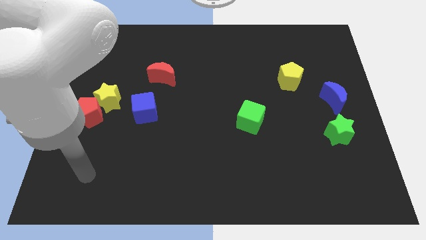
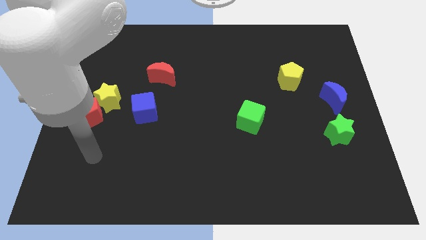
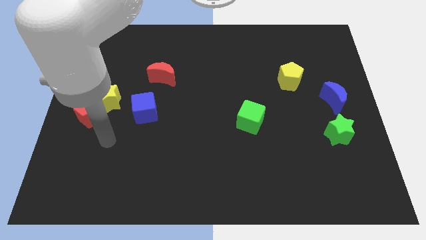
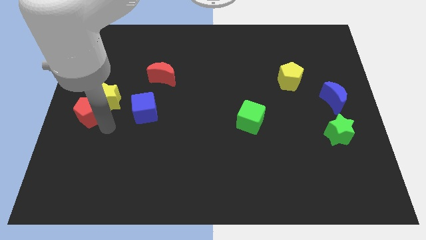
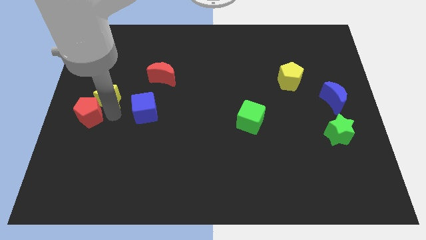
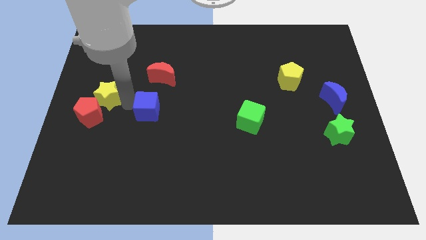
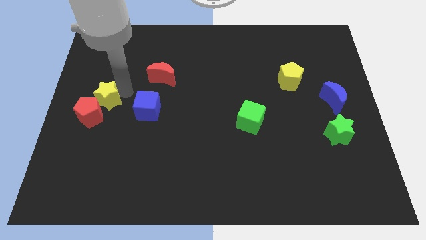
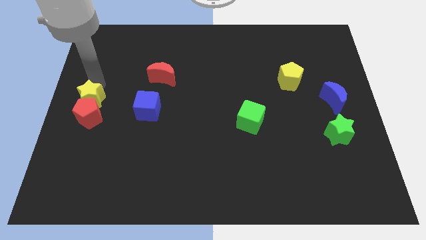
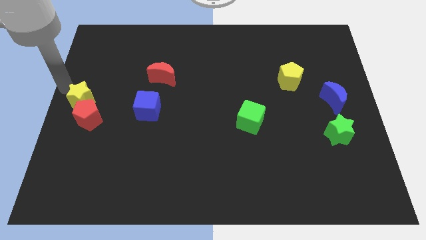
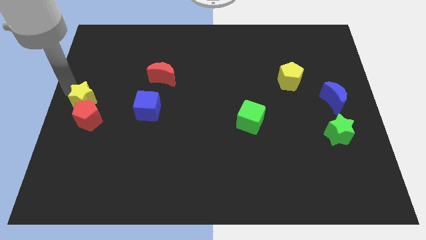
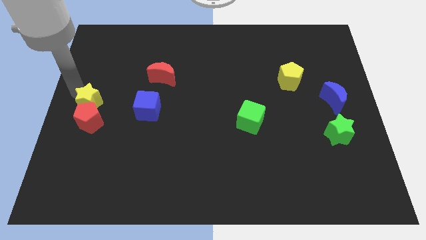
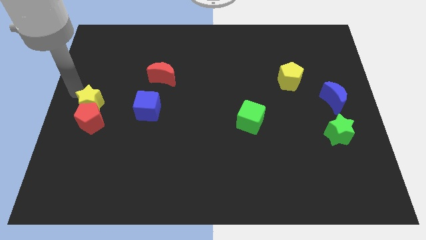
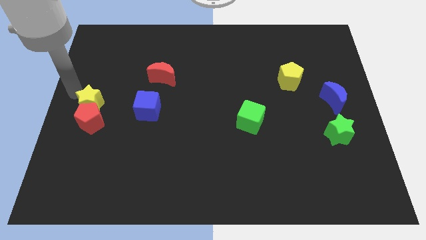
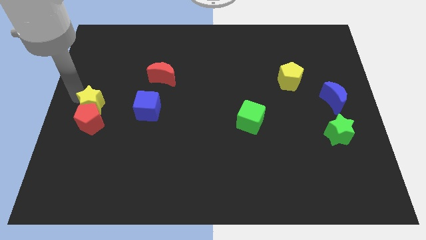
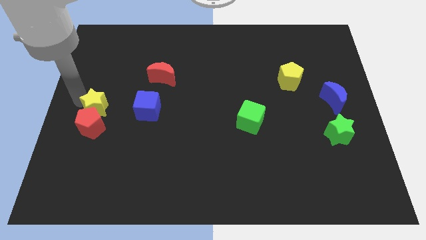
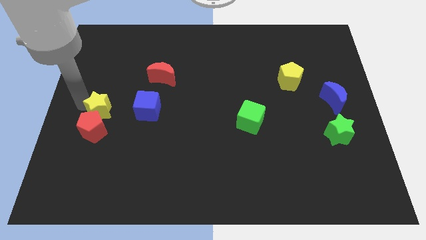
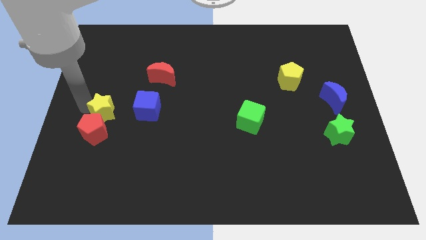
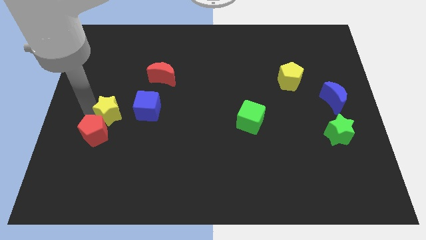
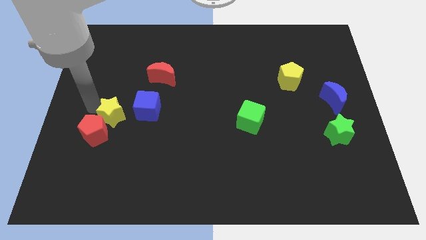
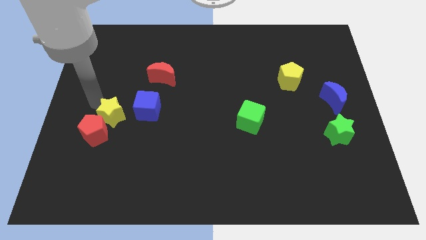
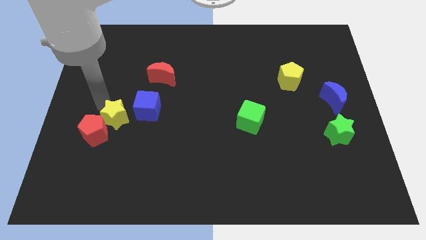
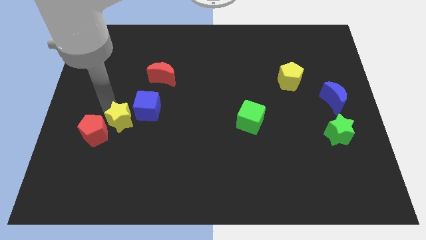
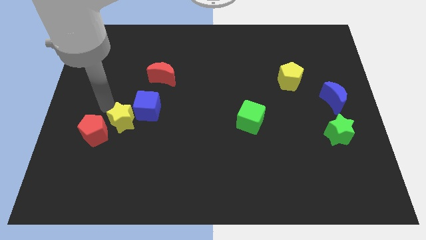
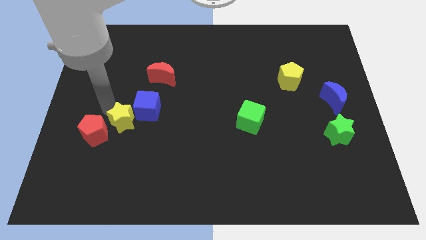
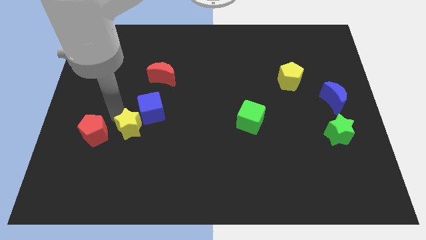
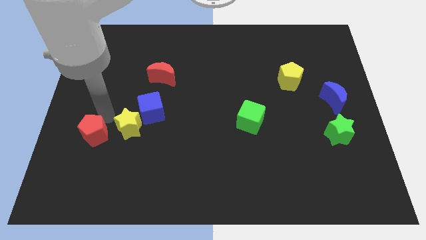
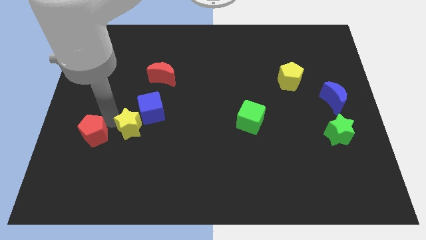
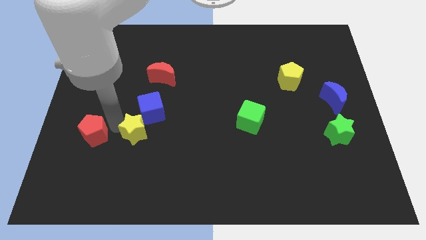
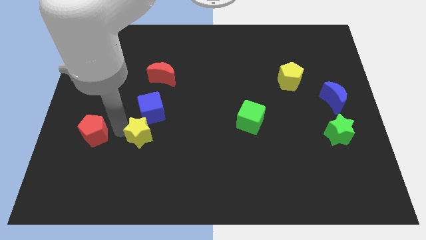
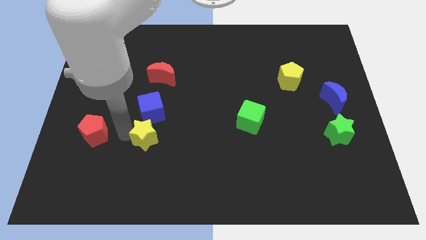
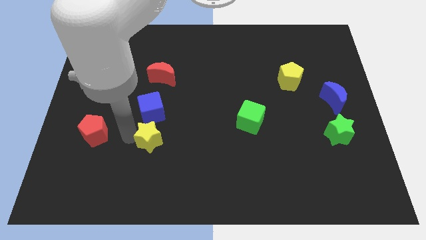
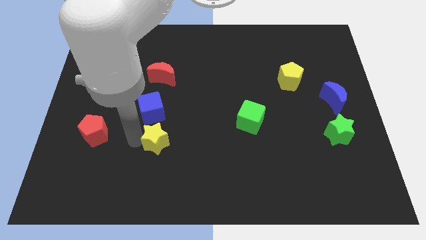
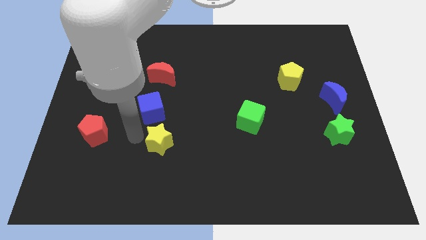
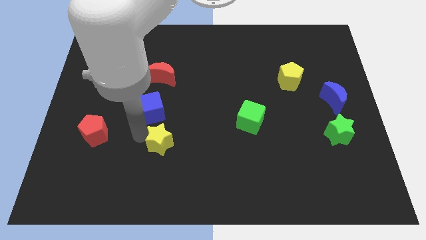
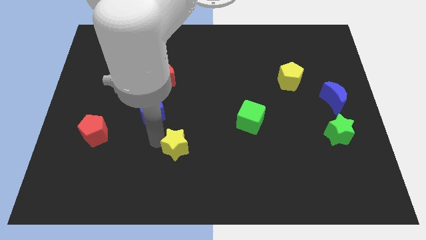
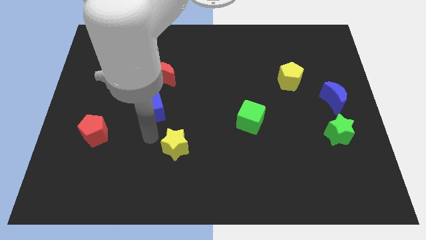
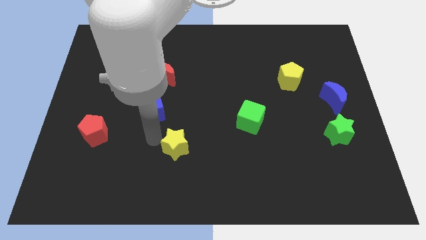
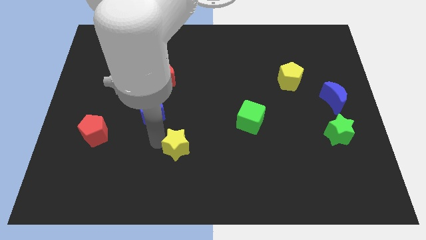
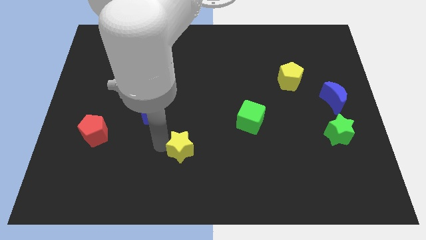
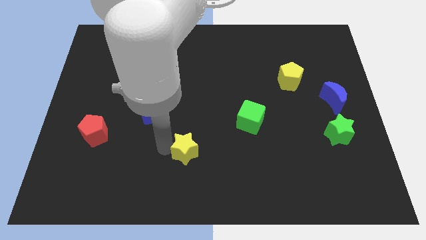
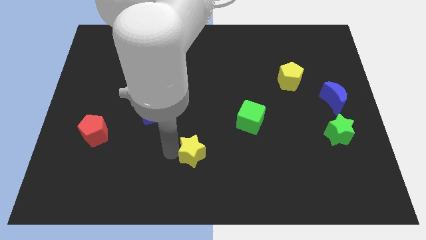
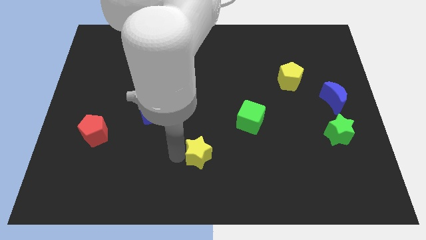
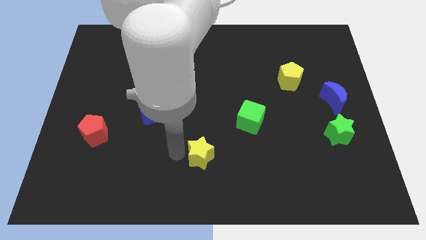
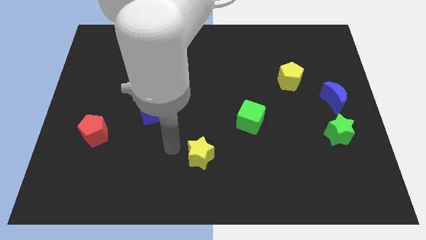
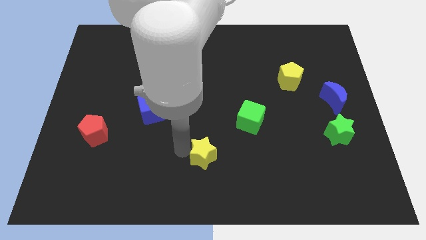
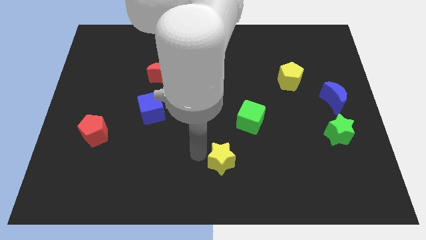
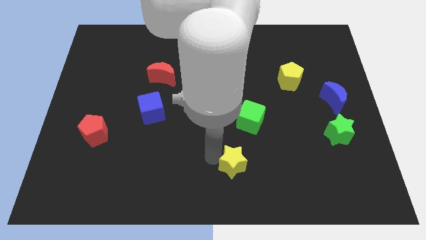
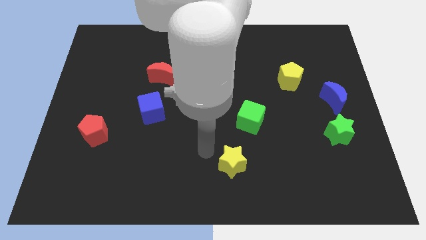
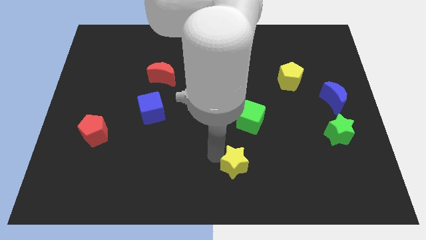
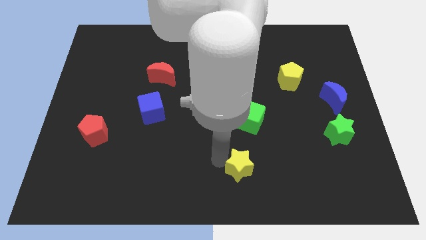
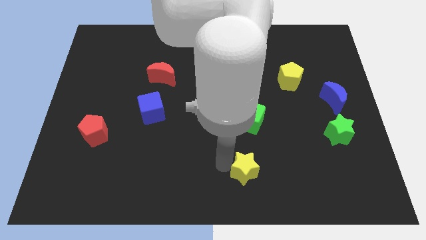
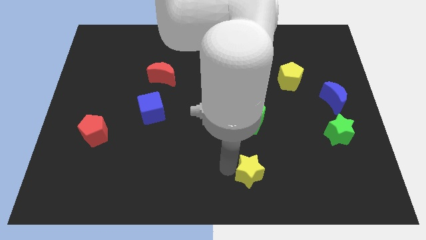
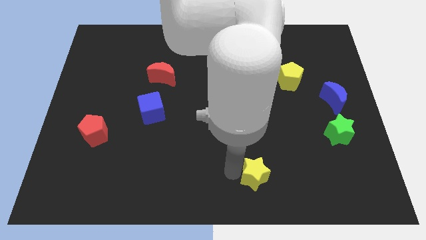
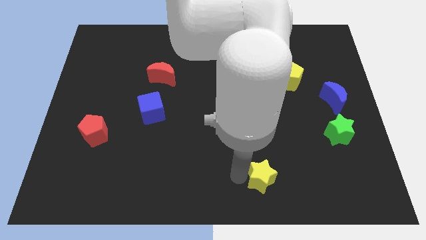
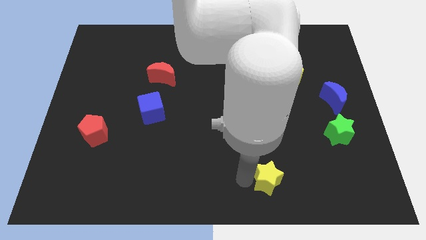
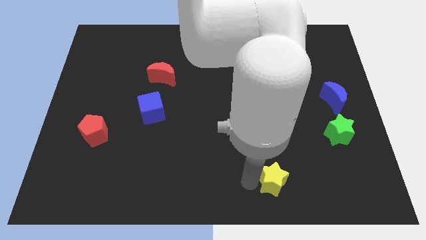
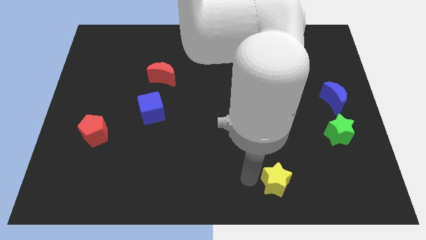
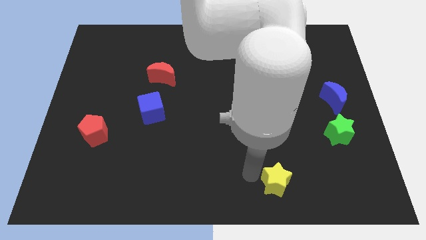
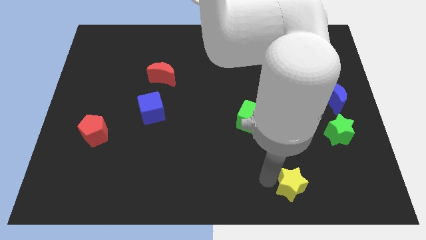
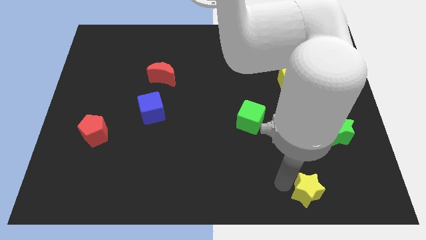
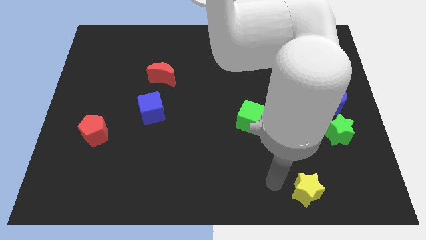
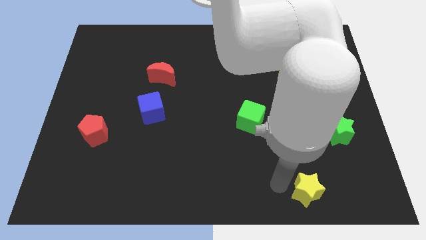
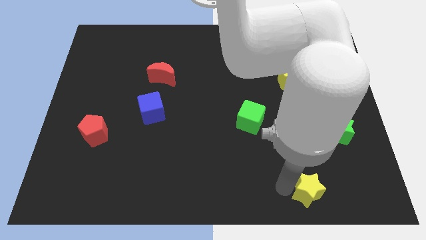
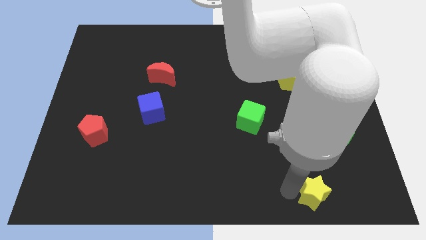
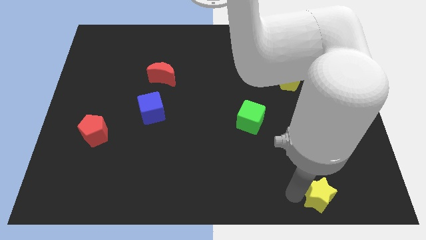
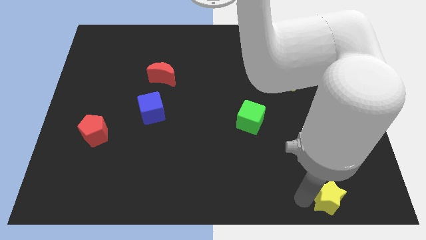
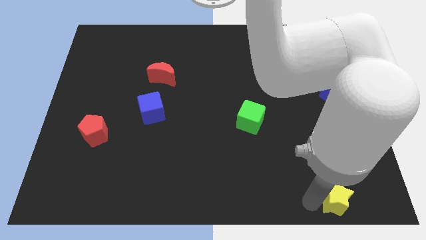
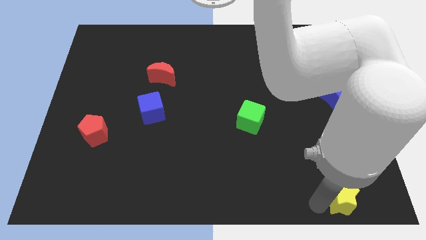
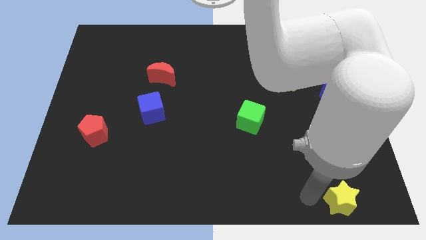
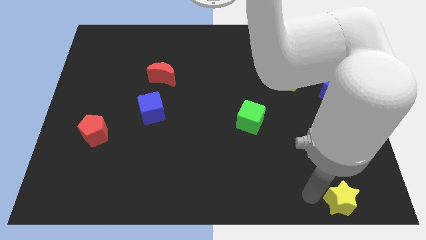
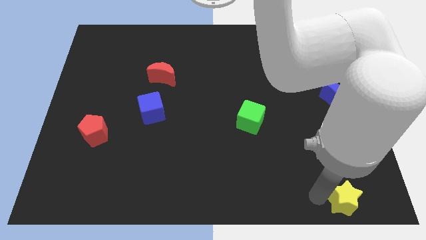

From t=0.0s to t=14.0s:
put the yellow star to the bottom right corner

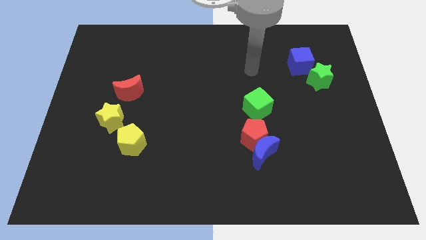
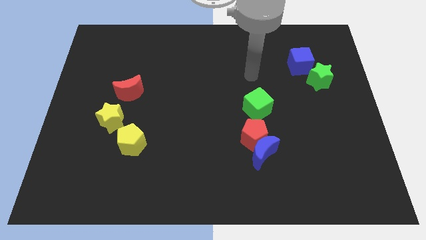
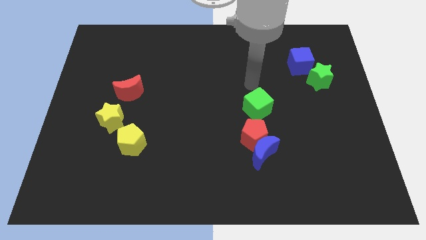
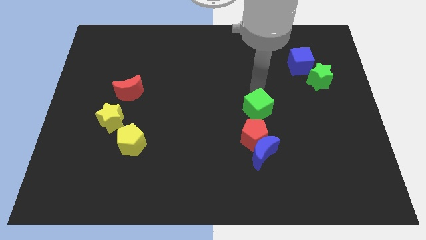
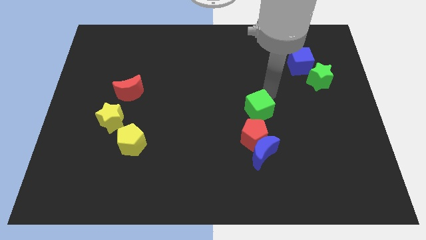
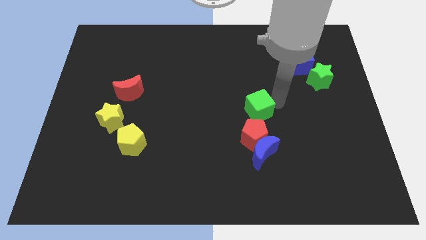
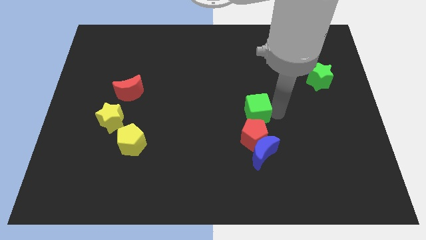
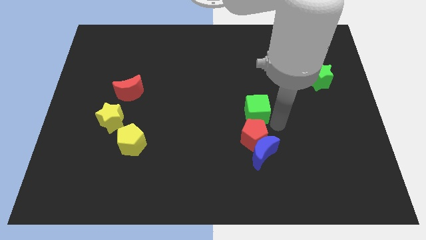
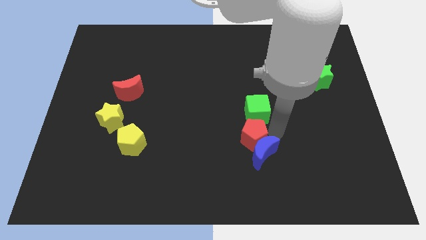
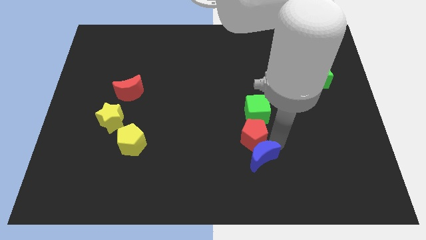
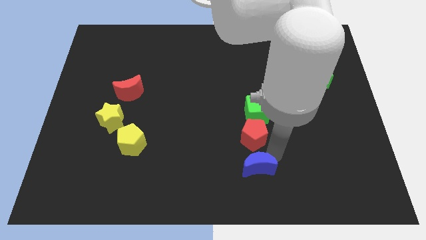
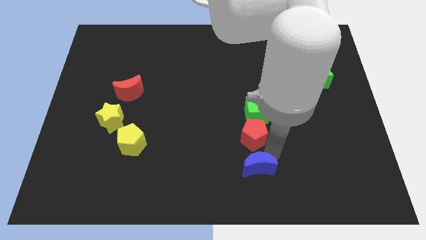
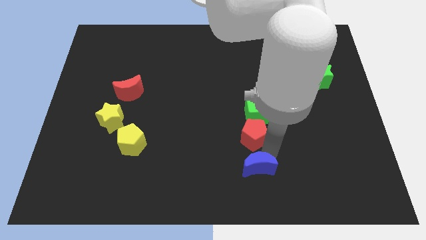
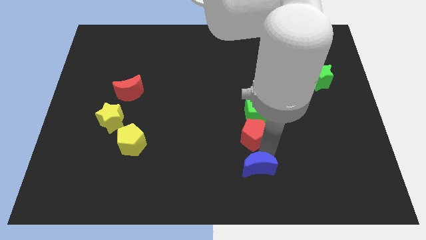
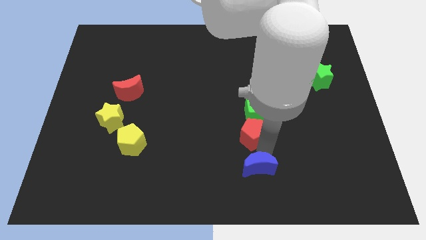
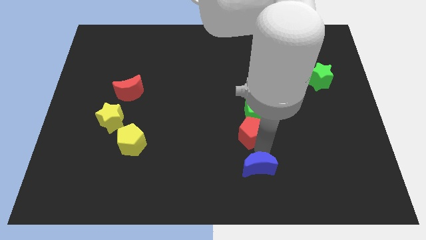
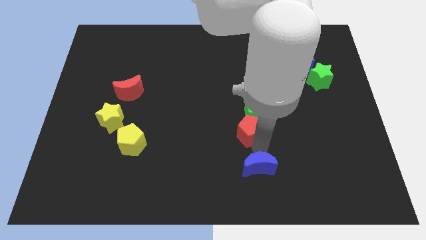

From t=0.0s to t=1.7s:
slide the red pentagon to the middle
